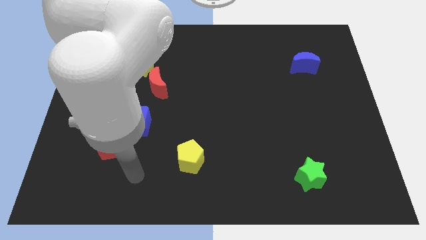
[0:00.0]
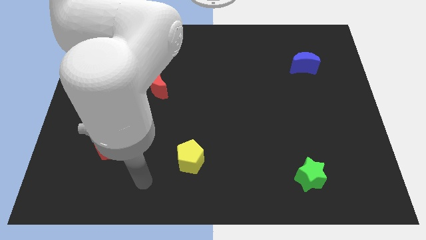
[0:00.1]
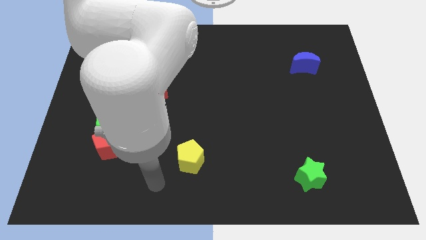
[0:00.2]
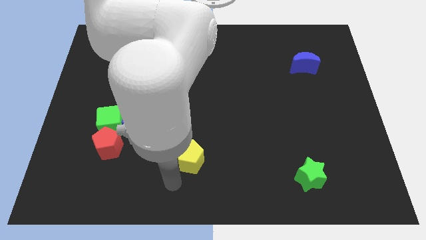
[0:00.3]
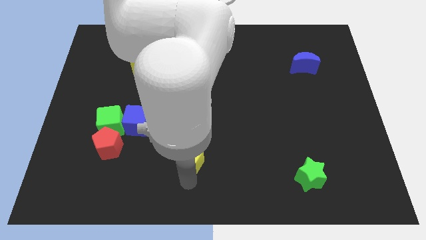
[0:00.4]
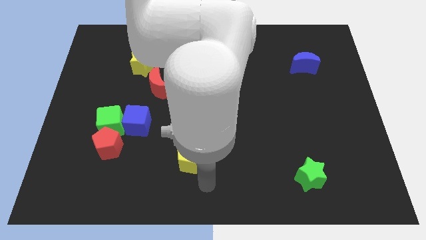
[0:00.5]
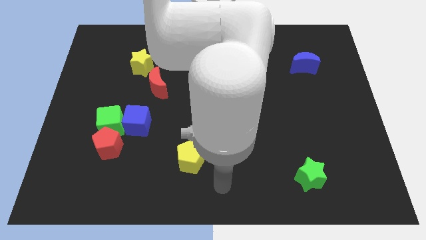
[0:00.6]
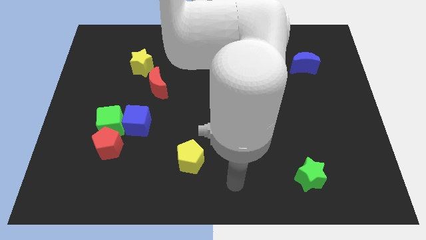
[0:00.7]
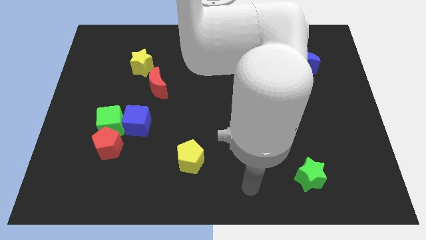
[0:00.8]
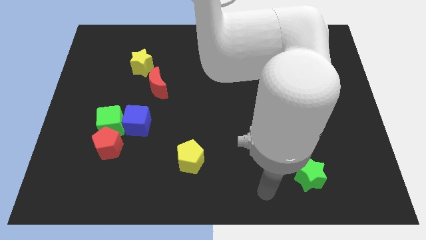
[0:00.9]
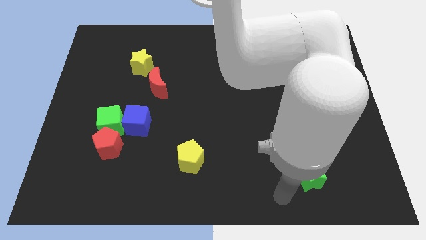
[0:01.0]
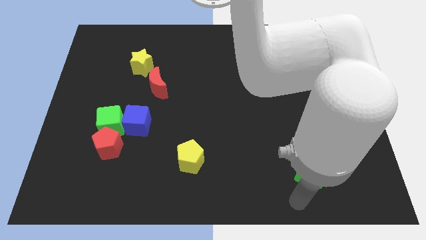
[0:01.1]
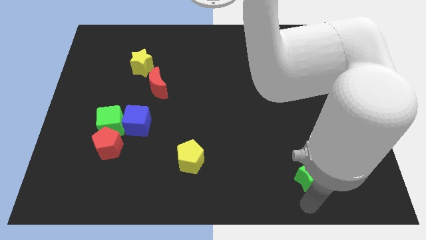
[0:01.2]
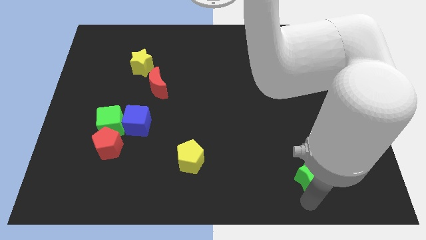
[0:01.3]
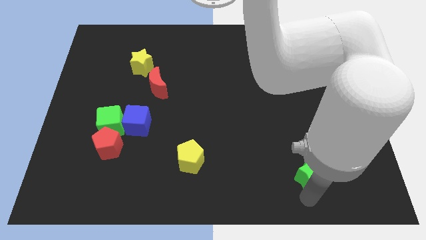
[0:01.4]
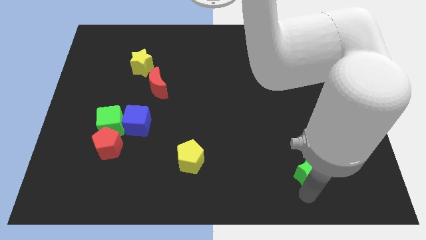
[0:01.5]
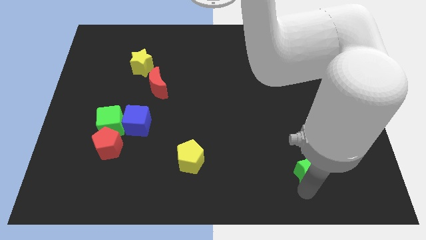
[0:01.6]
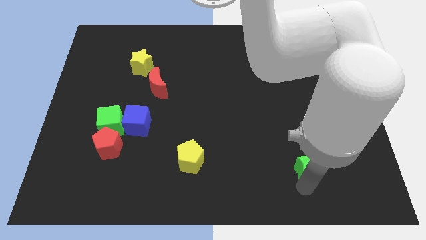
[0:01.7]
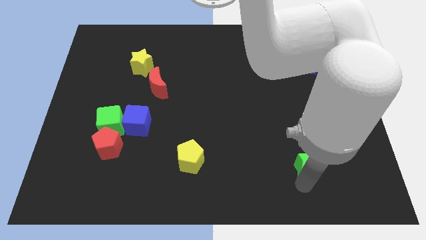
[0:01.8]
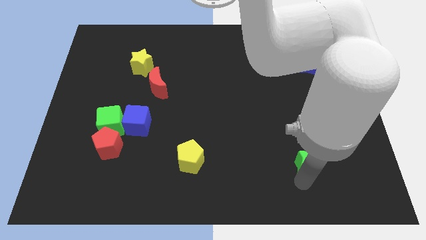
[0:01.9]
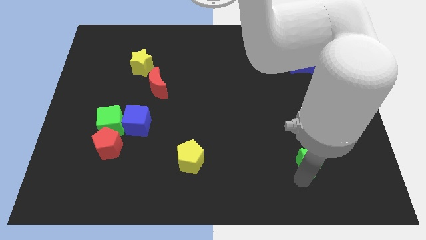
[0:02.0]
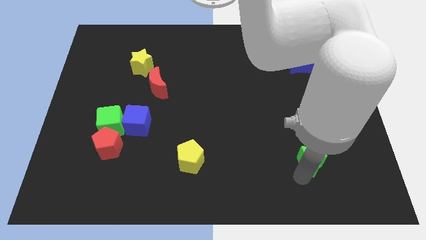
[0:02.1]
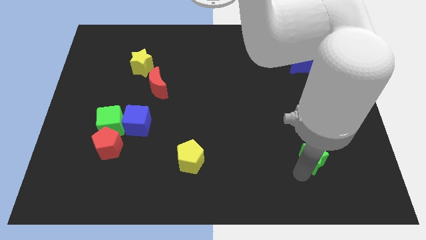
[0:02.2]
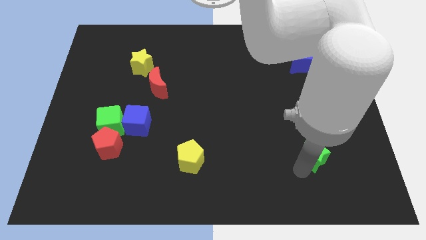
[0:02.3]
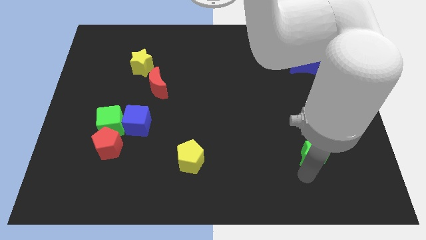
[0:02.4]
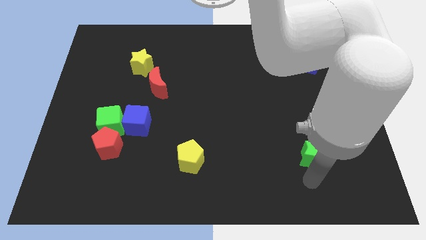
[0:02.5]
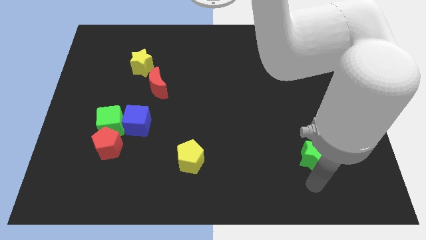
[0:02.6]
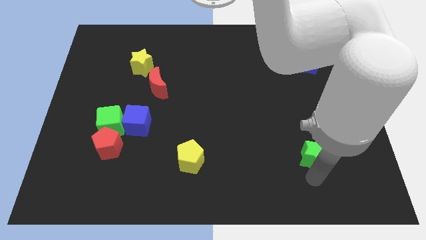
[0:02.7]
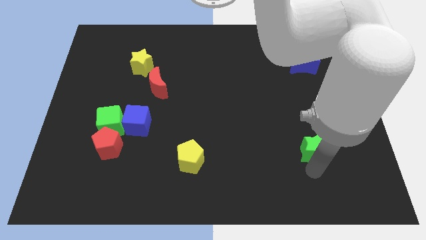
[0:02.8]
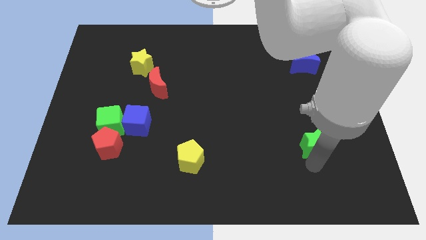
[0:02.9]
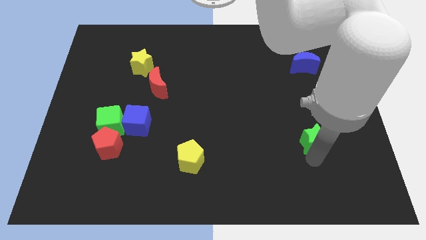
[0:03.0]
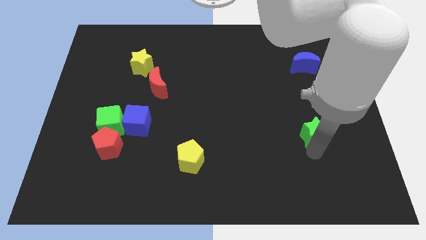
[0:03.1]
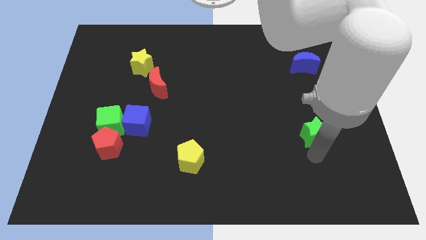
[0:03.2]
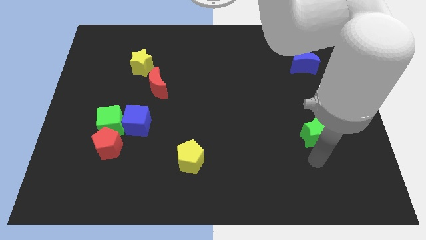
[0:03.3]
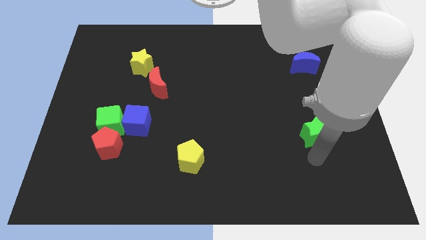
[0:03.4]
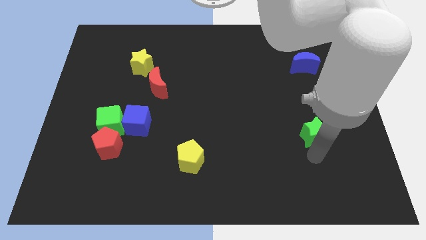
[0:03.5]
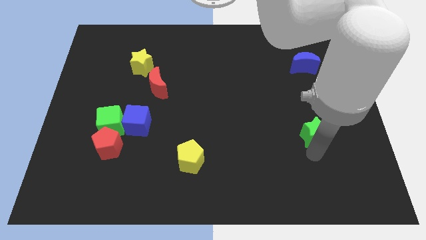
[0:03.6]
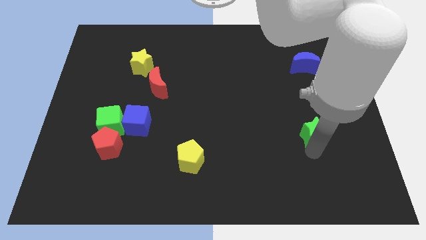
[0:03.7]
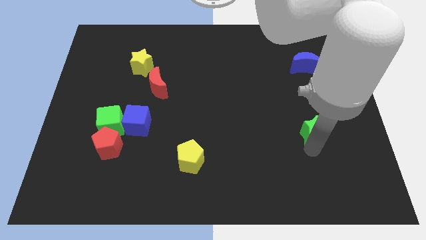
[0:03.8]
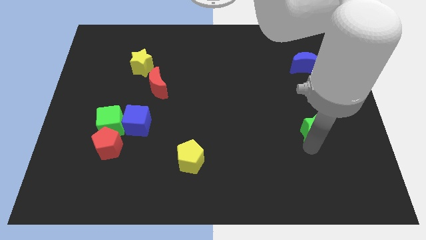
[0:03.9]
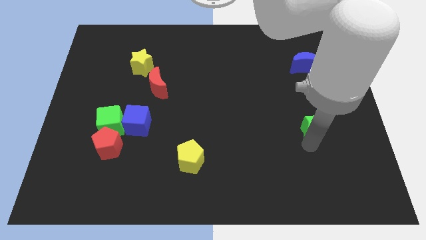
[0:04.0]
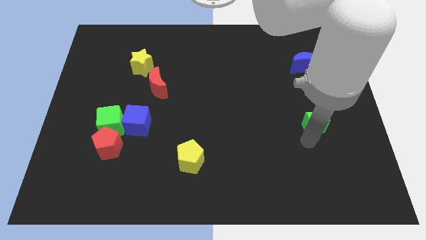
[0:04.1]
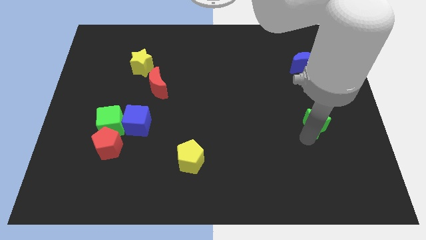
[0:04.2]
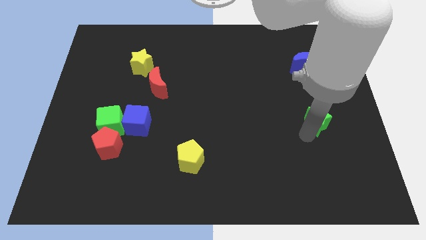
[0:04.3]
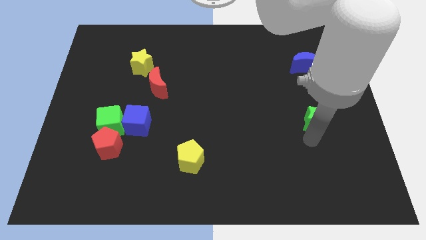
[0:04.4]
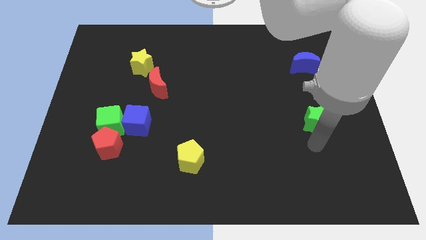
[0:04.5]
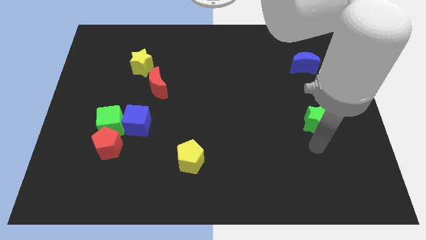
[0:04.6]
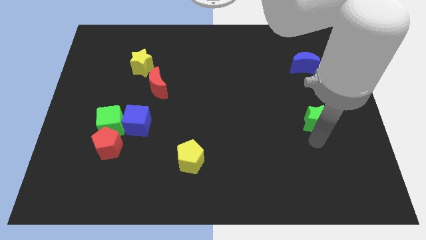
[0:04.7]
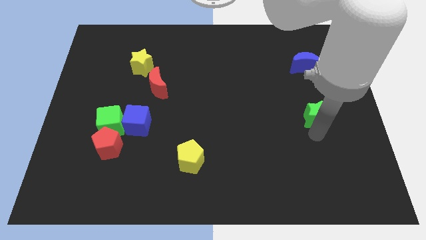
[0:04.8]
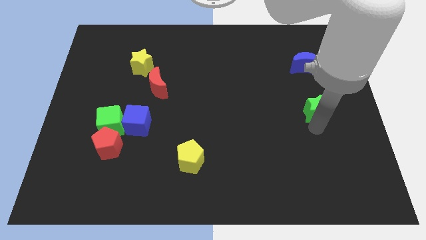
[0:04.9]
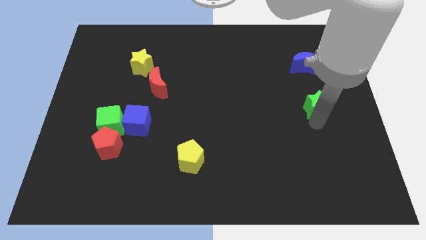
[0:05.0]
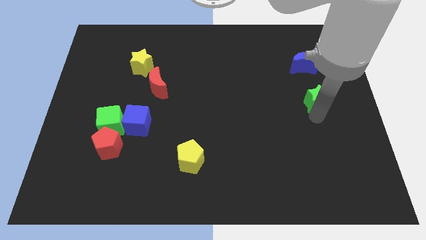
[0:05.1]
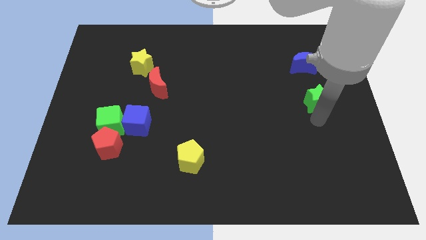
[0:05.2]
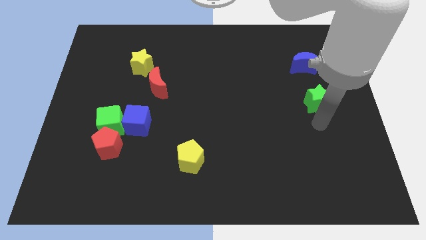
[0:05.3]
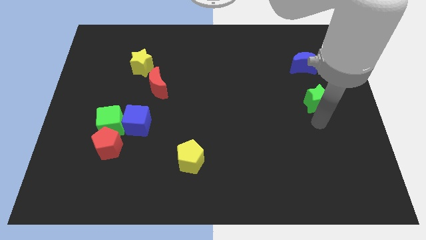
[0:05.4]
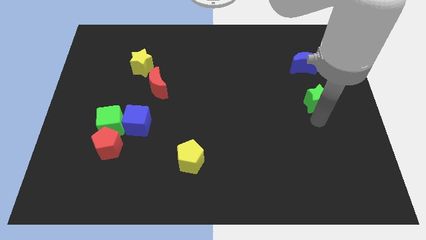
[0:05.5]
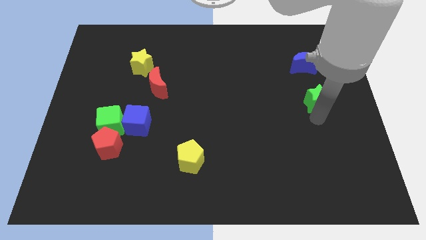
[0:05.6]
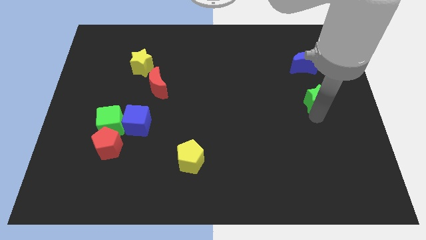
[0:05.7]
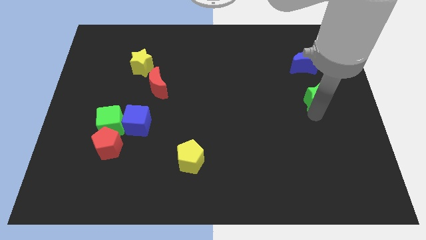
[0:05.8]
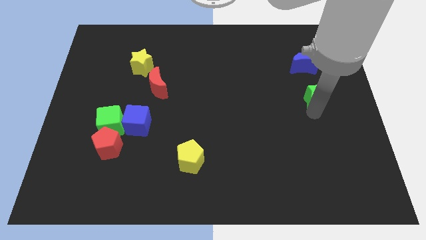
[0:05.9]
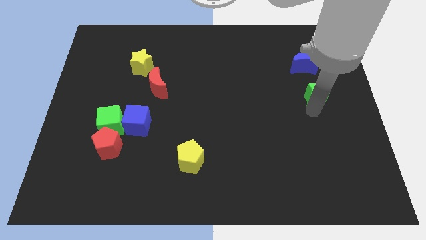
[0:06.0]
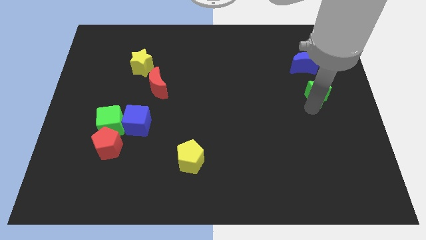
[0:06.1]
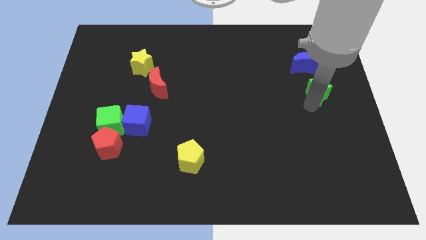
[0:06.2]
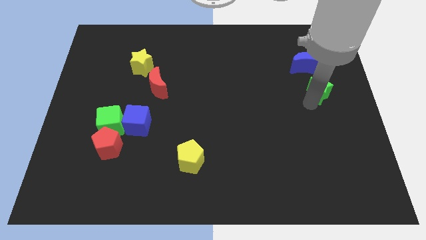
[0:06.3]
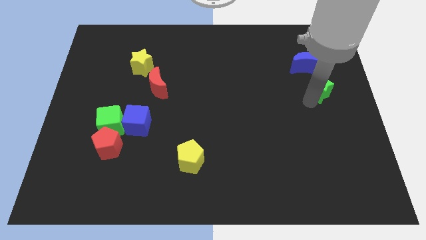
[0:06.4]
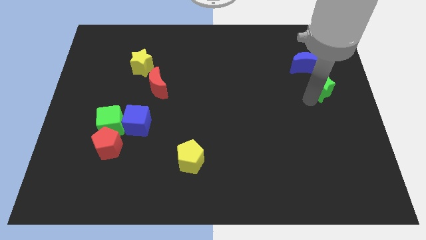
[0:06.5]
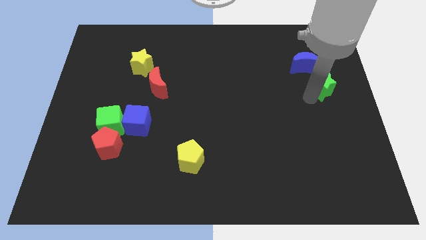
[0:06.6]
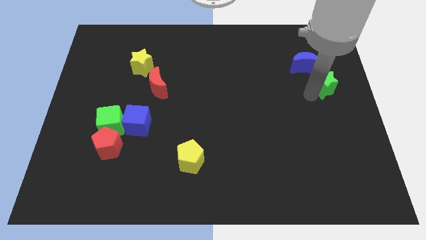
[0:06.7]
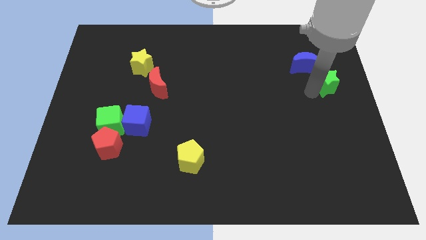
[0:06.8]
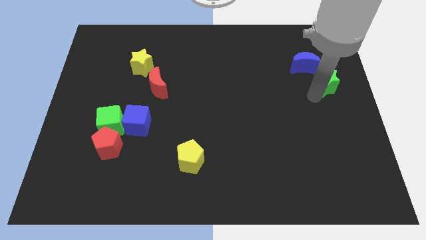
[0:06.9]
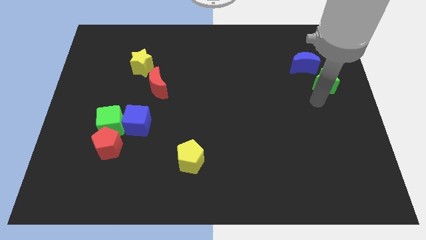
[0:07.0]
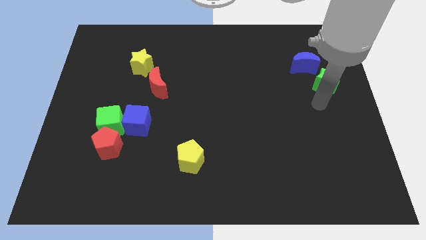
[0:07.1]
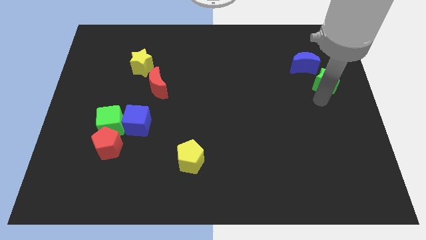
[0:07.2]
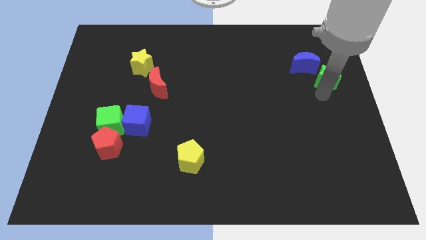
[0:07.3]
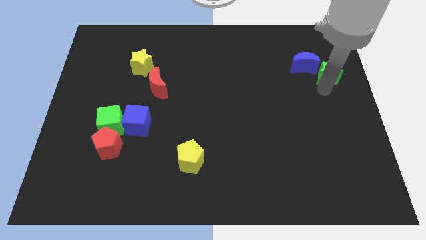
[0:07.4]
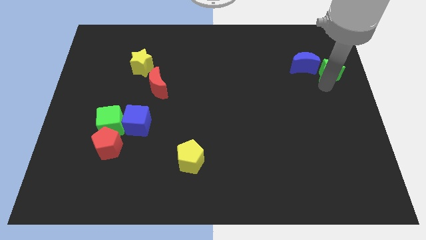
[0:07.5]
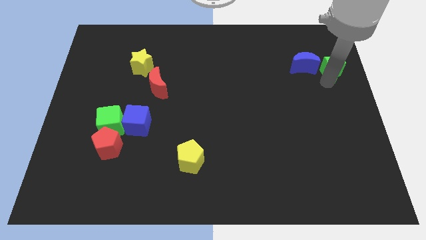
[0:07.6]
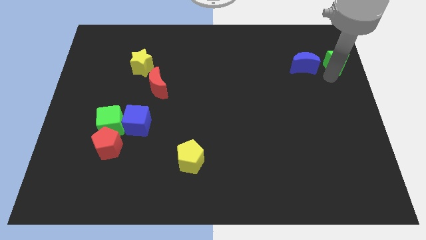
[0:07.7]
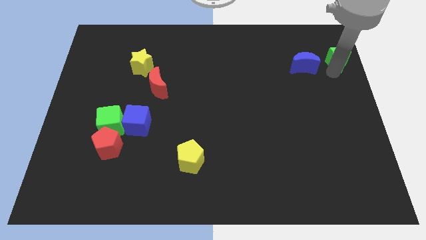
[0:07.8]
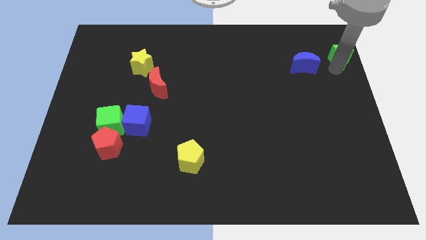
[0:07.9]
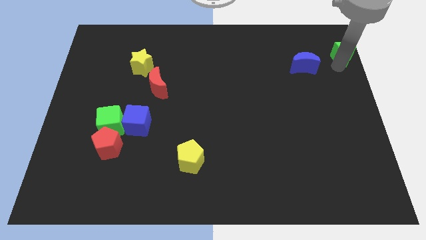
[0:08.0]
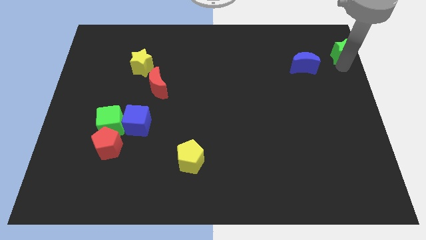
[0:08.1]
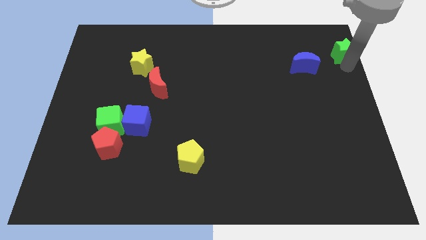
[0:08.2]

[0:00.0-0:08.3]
put the green star to the upper right corner
